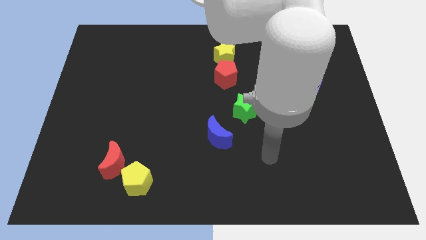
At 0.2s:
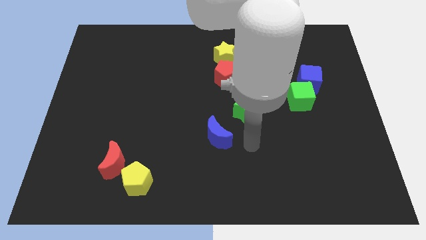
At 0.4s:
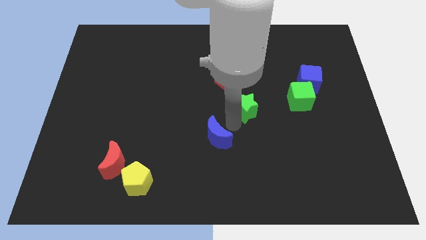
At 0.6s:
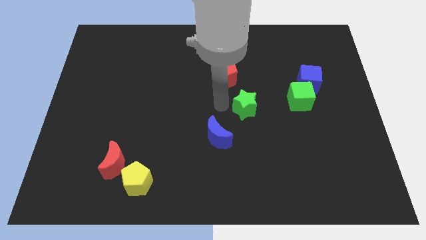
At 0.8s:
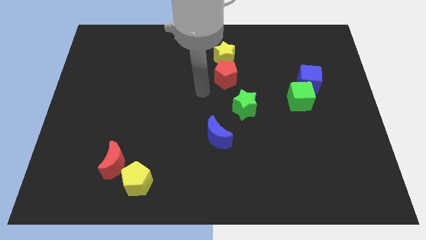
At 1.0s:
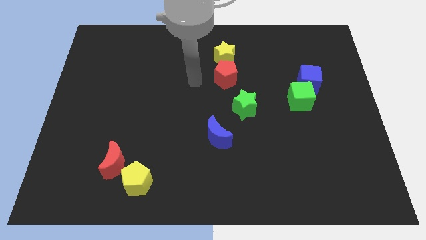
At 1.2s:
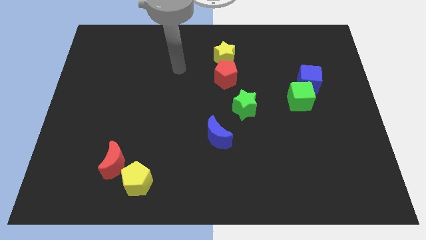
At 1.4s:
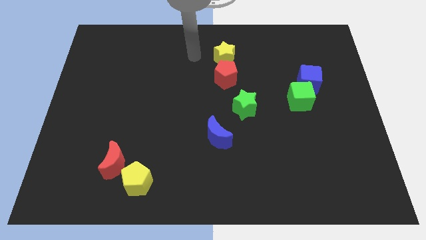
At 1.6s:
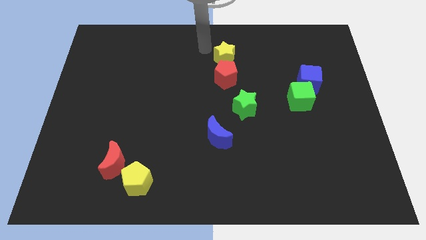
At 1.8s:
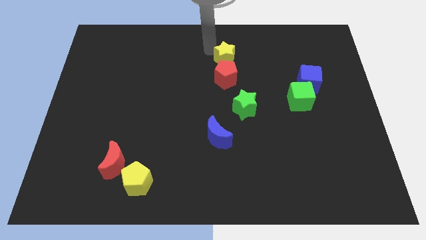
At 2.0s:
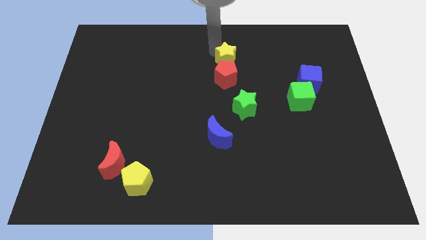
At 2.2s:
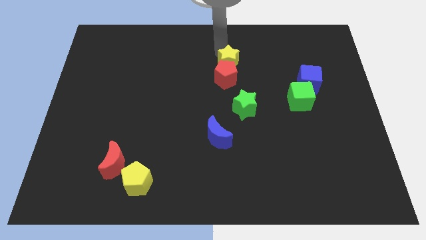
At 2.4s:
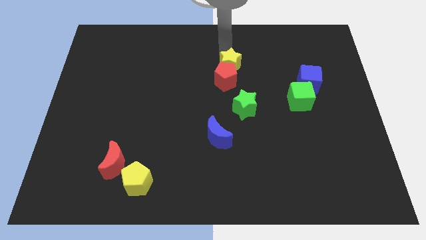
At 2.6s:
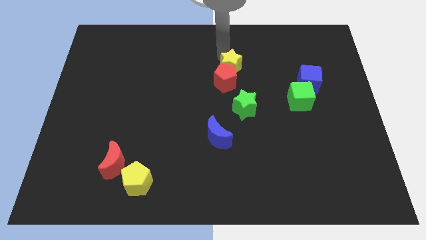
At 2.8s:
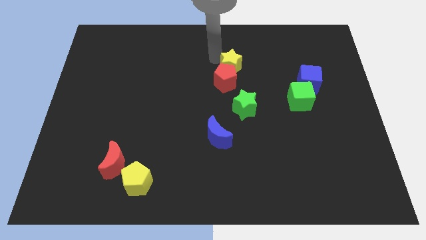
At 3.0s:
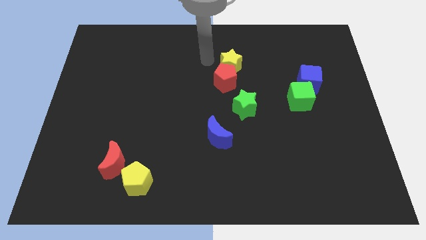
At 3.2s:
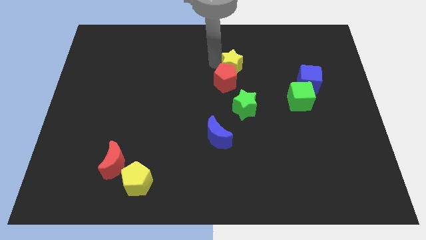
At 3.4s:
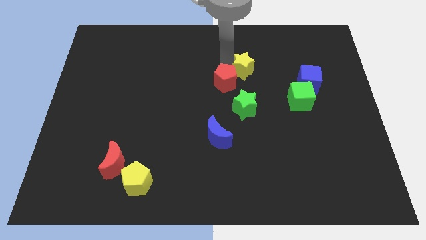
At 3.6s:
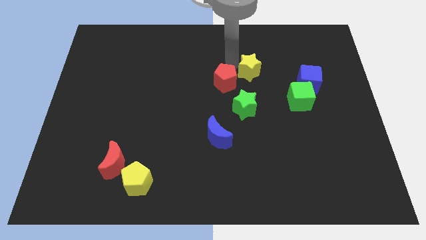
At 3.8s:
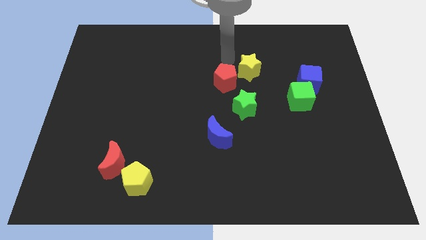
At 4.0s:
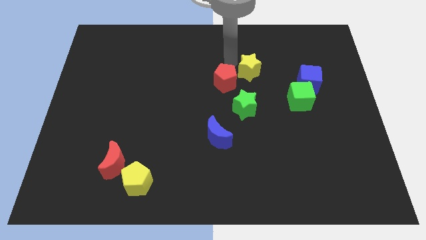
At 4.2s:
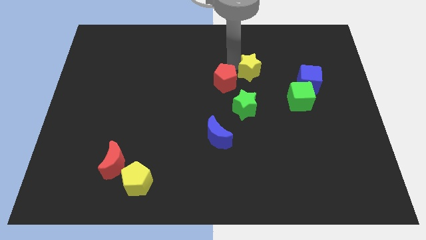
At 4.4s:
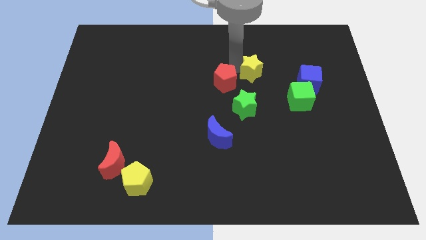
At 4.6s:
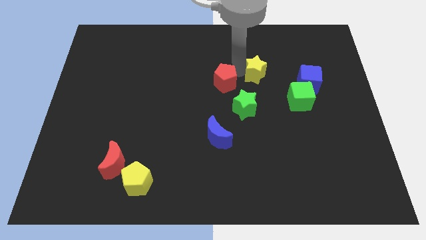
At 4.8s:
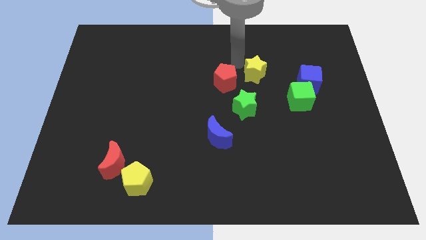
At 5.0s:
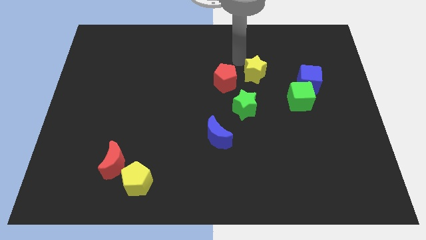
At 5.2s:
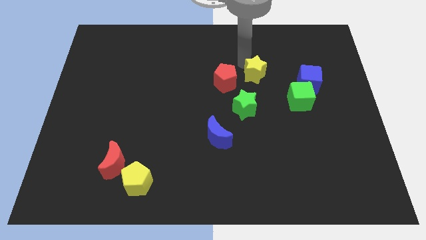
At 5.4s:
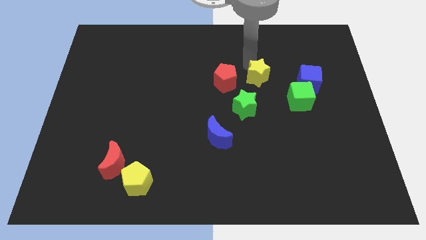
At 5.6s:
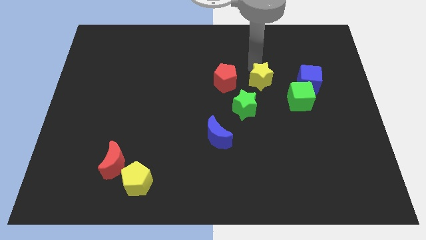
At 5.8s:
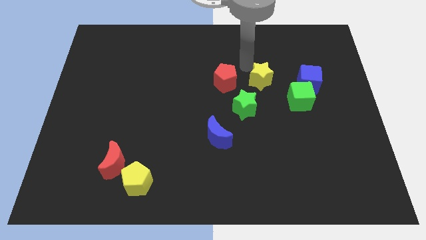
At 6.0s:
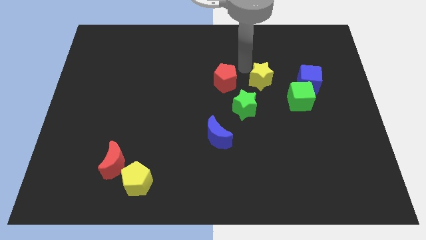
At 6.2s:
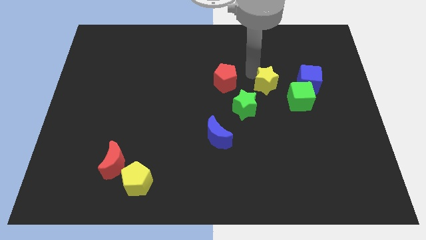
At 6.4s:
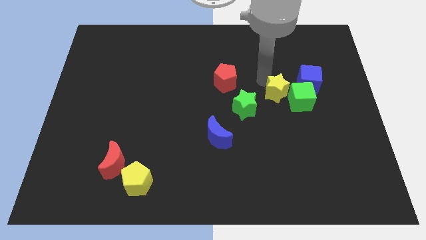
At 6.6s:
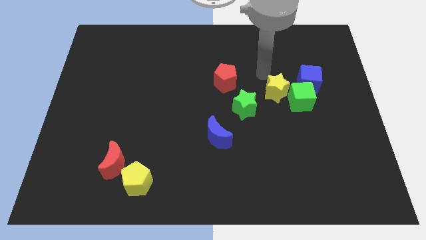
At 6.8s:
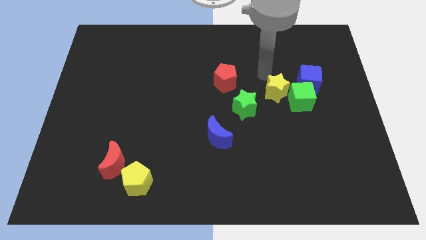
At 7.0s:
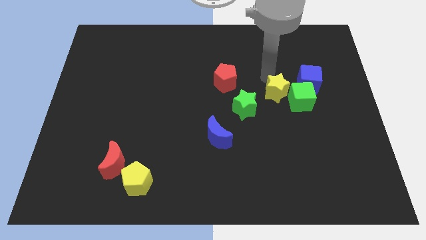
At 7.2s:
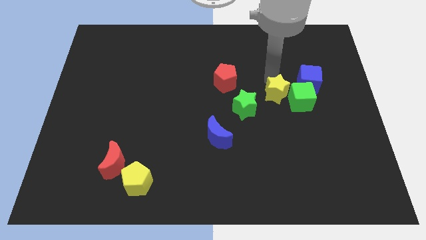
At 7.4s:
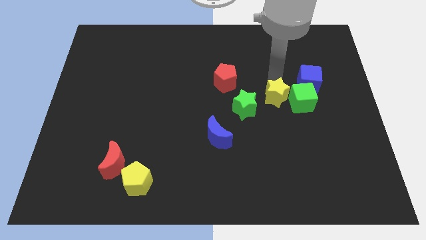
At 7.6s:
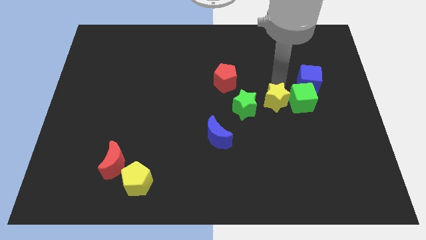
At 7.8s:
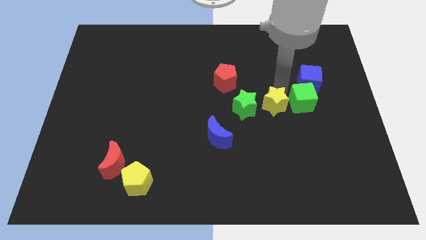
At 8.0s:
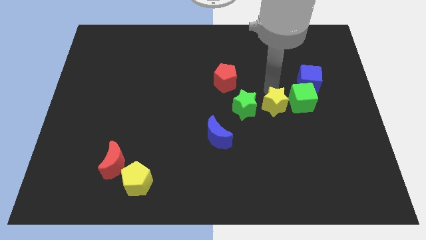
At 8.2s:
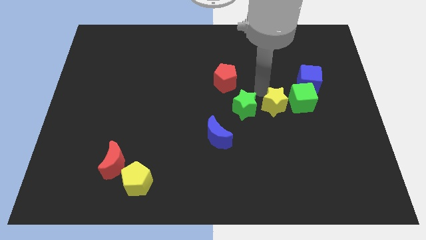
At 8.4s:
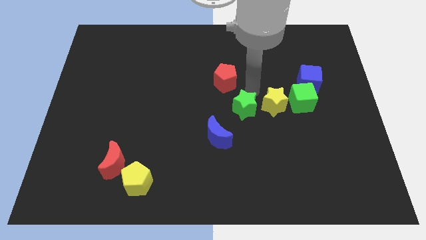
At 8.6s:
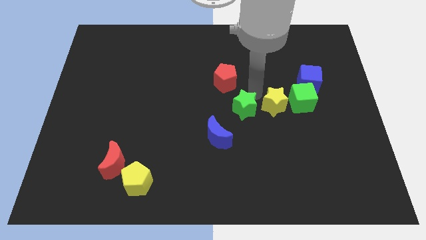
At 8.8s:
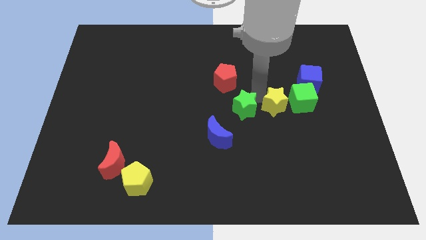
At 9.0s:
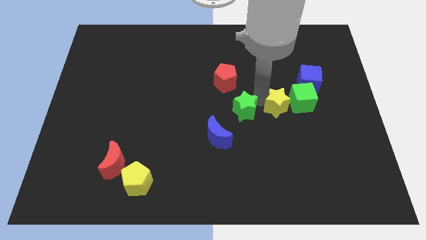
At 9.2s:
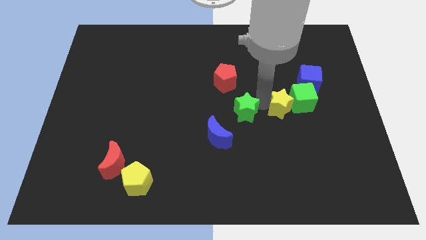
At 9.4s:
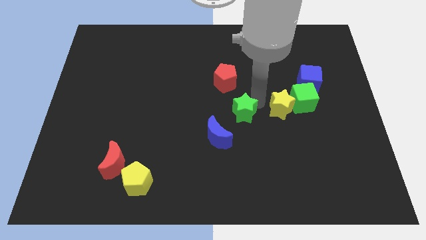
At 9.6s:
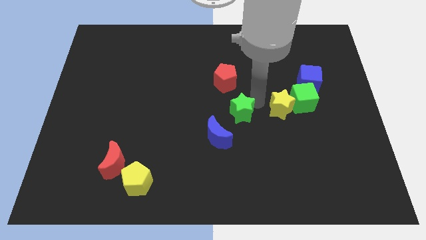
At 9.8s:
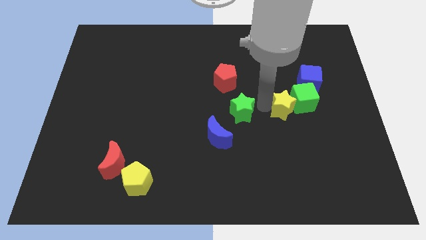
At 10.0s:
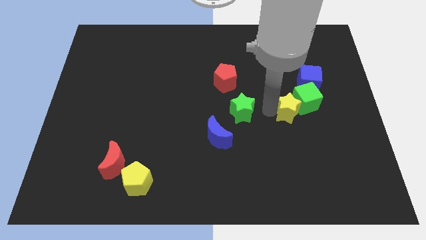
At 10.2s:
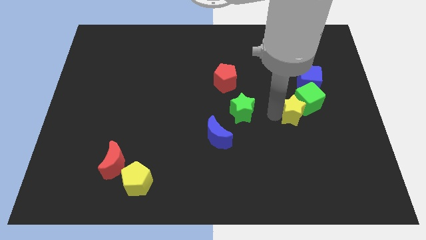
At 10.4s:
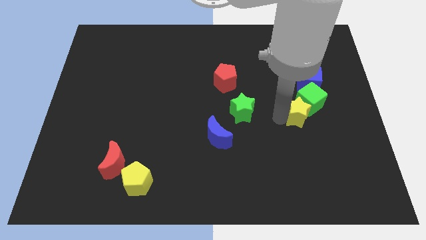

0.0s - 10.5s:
slide the yellow star to the bottom of the blue cube

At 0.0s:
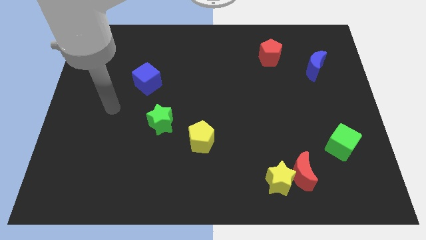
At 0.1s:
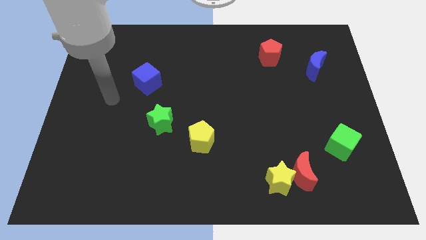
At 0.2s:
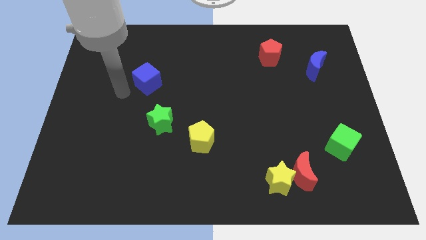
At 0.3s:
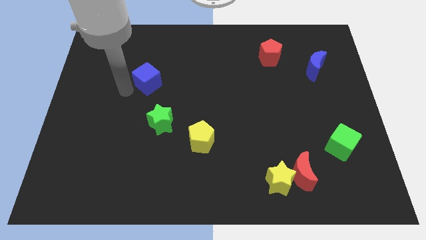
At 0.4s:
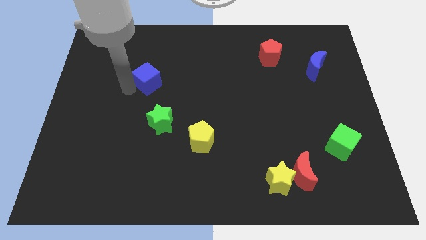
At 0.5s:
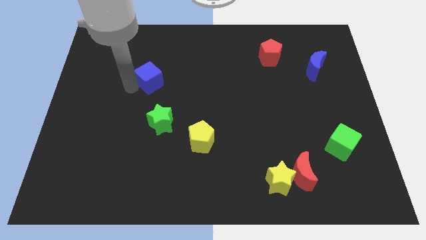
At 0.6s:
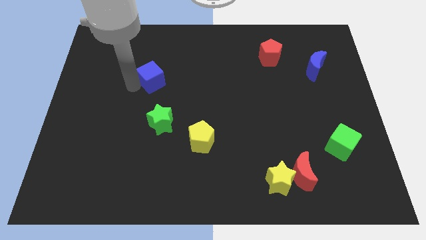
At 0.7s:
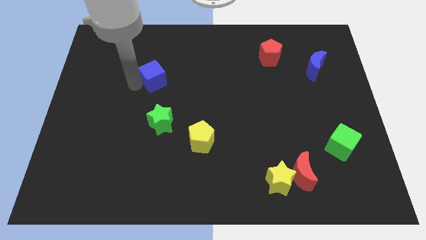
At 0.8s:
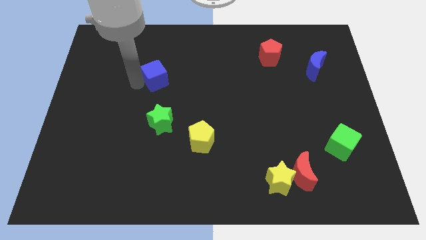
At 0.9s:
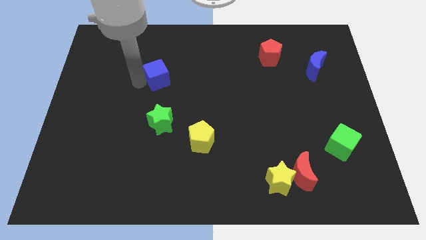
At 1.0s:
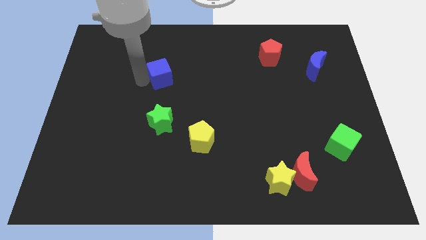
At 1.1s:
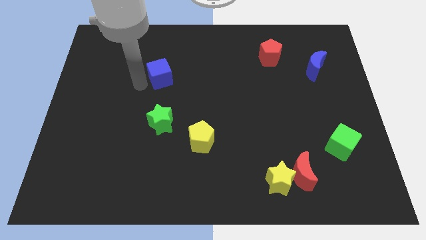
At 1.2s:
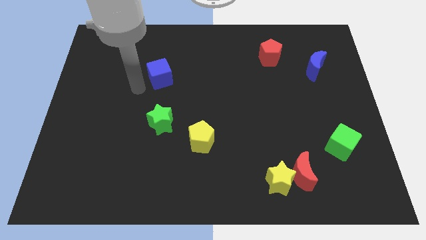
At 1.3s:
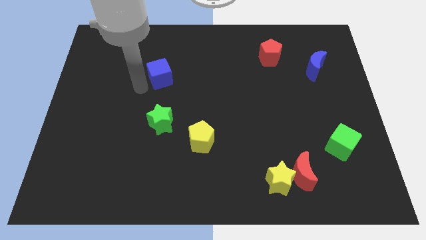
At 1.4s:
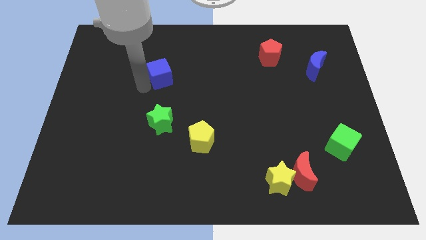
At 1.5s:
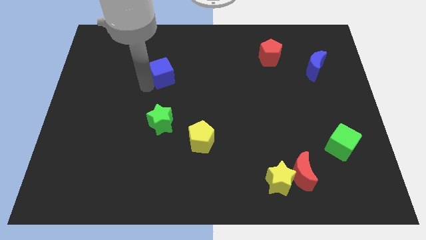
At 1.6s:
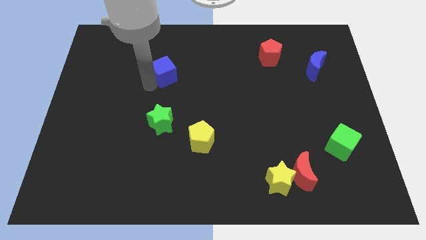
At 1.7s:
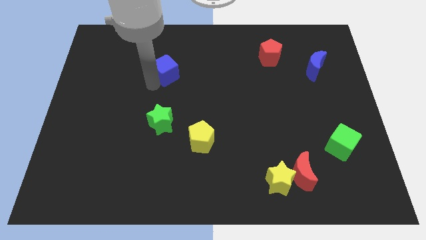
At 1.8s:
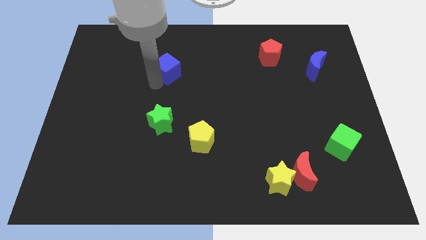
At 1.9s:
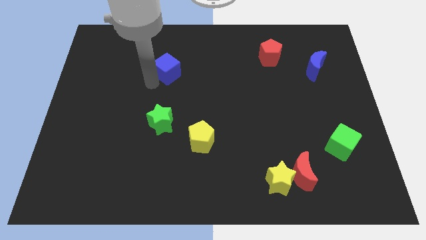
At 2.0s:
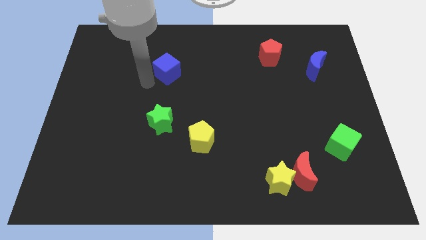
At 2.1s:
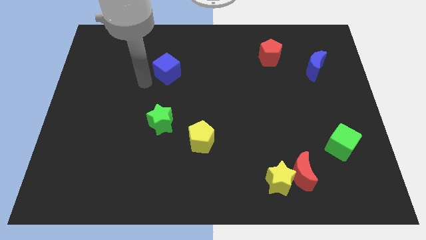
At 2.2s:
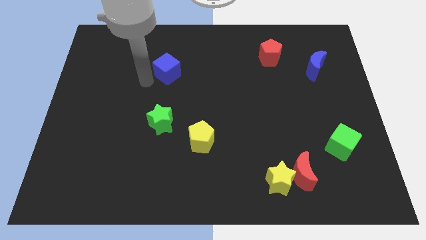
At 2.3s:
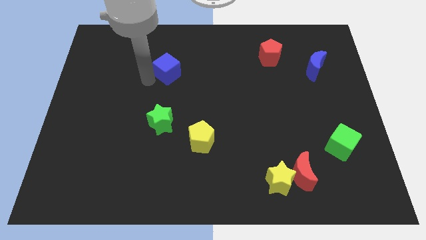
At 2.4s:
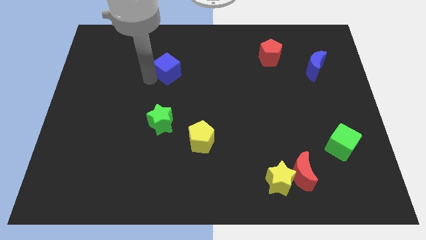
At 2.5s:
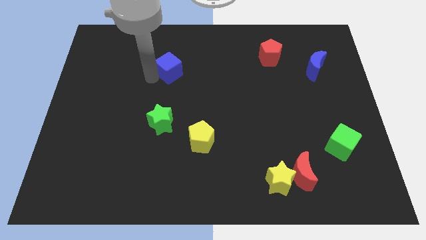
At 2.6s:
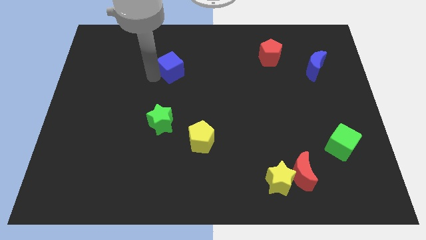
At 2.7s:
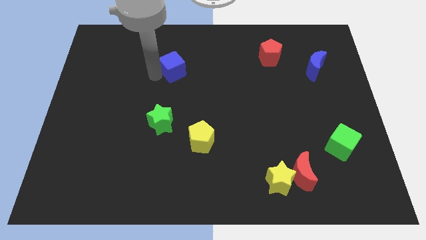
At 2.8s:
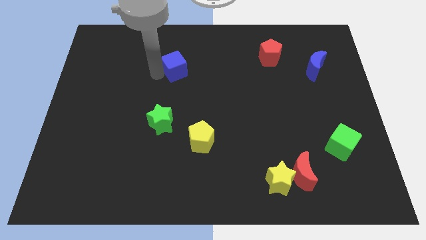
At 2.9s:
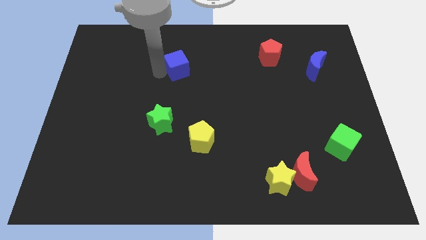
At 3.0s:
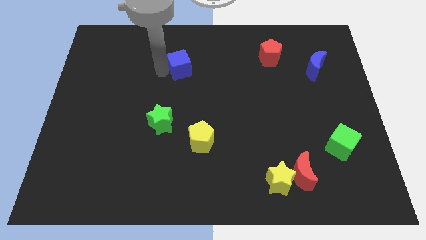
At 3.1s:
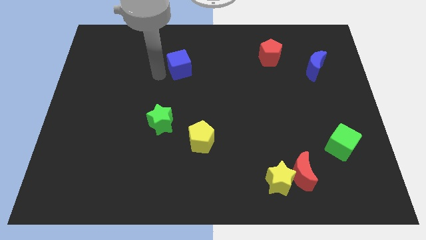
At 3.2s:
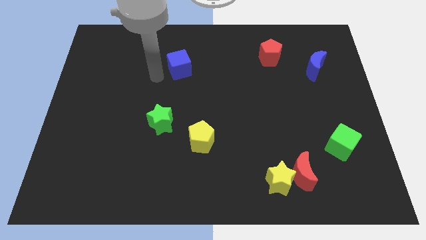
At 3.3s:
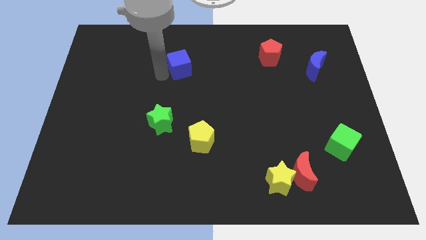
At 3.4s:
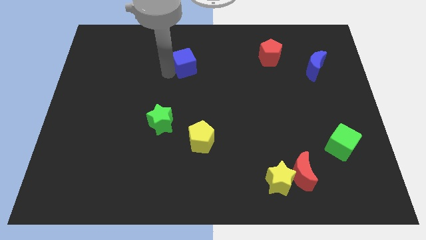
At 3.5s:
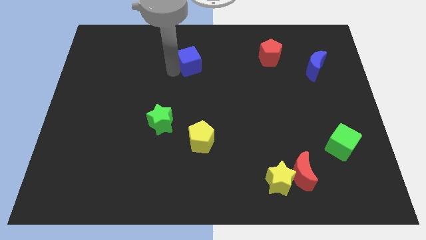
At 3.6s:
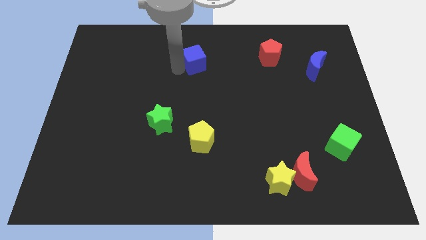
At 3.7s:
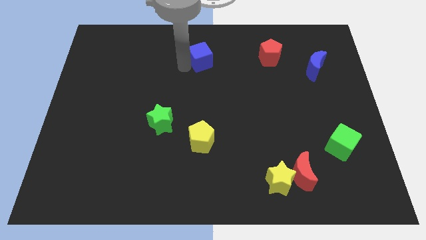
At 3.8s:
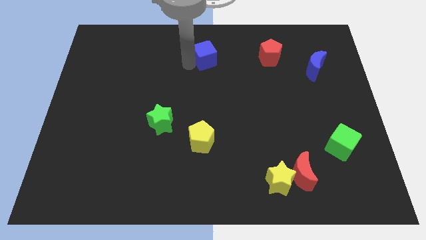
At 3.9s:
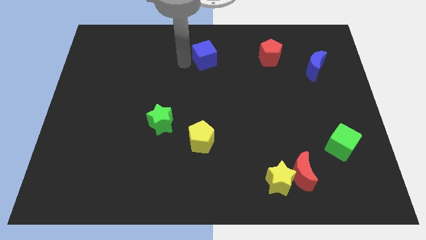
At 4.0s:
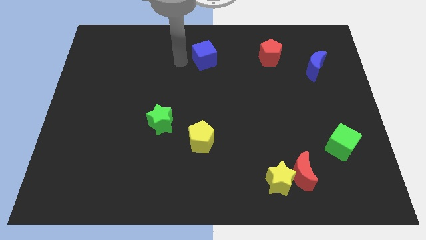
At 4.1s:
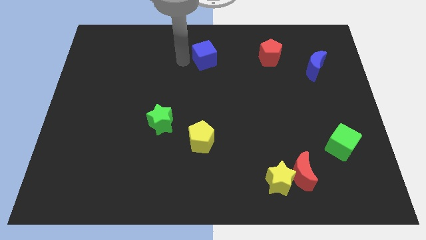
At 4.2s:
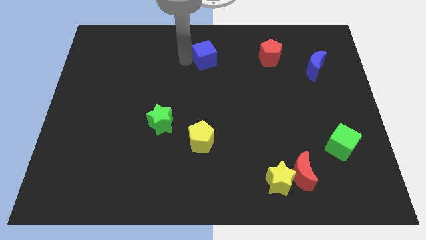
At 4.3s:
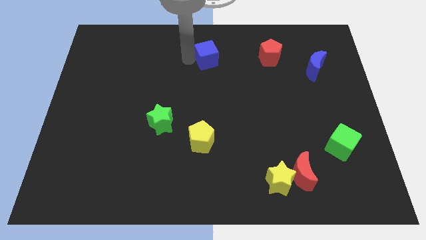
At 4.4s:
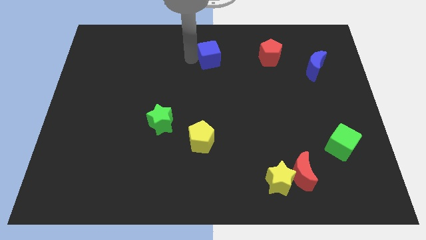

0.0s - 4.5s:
put the blue cube left of the red pentagon
